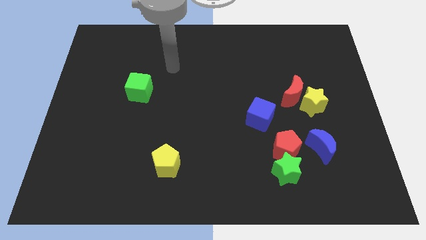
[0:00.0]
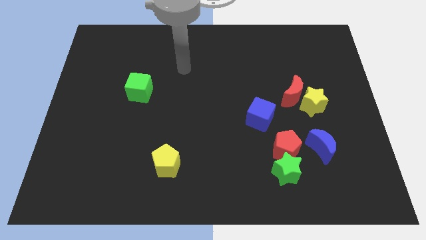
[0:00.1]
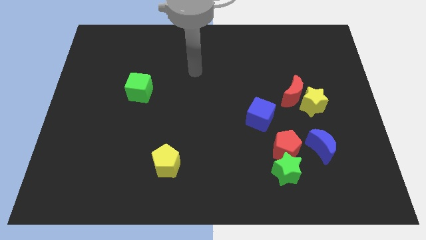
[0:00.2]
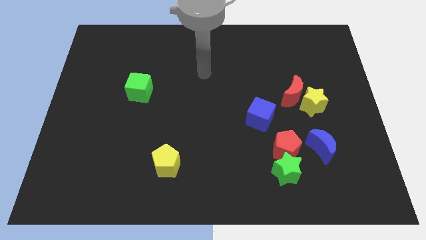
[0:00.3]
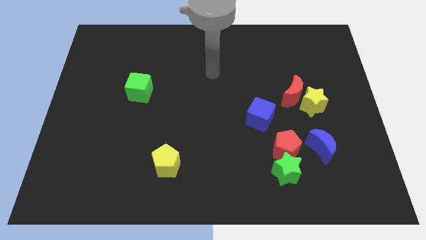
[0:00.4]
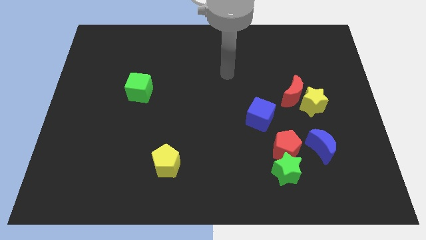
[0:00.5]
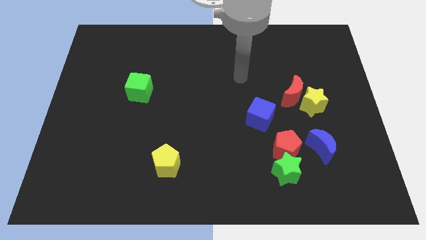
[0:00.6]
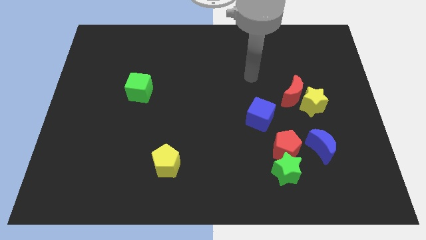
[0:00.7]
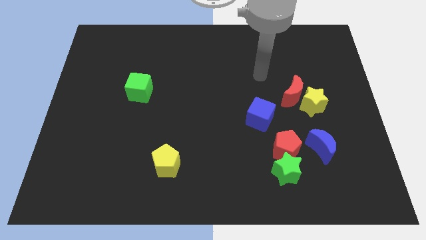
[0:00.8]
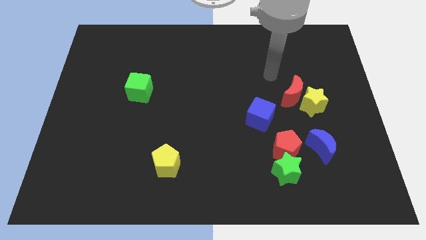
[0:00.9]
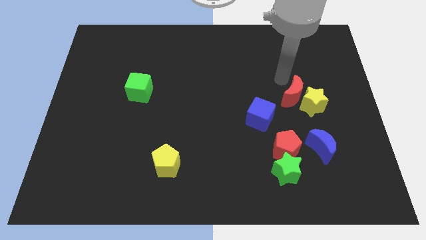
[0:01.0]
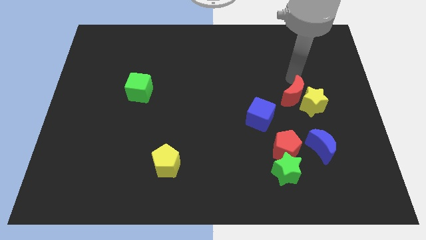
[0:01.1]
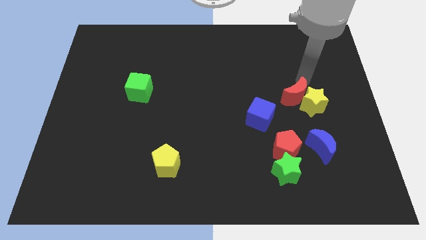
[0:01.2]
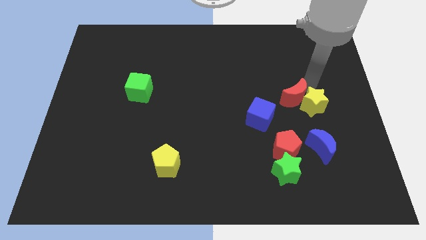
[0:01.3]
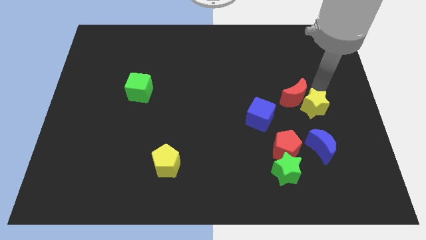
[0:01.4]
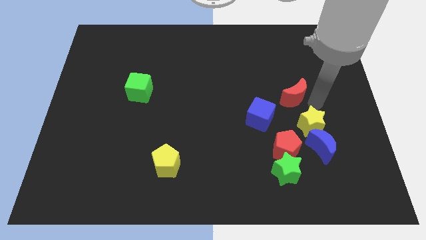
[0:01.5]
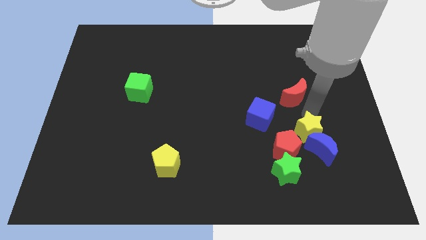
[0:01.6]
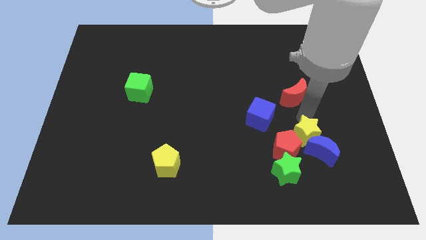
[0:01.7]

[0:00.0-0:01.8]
separate the red moon from the yellow star

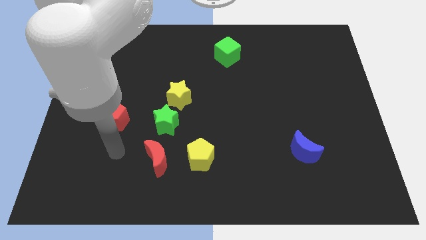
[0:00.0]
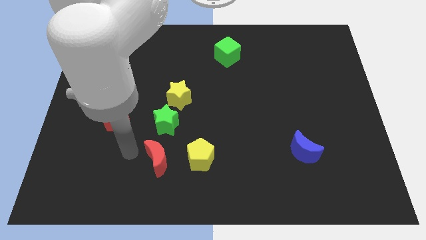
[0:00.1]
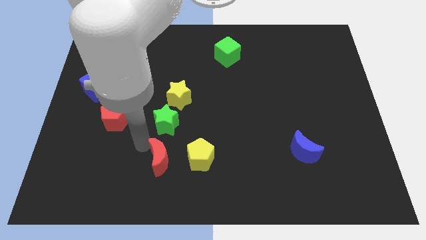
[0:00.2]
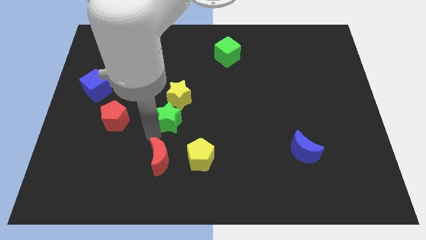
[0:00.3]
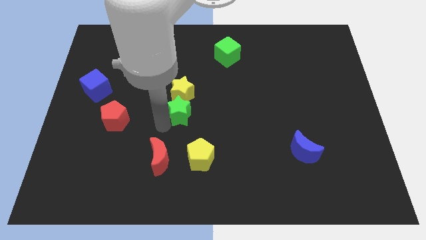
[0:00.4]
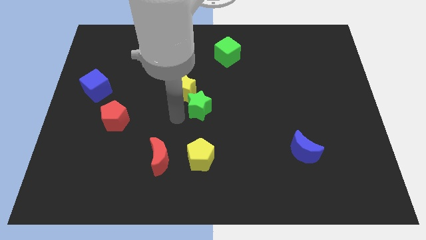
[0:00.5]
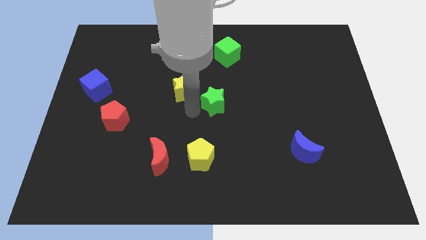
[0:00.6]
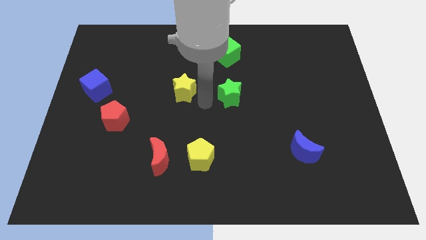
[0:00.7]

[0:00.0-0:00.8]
move the yellow star away from the green star

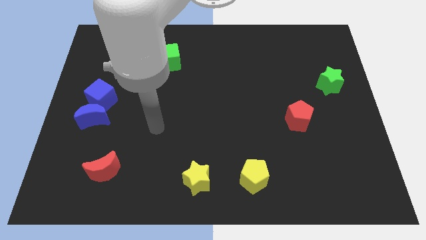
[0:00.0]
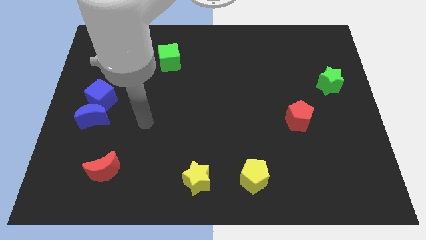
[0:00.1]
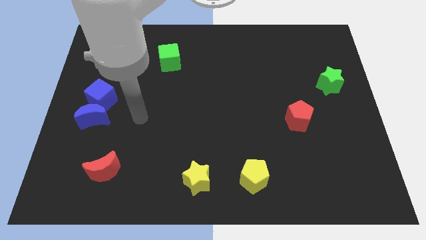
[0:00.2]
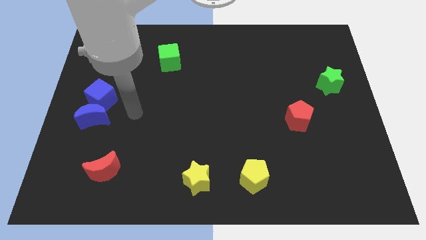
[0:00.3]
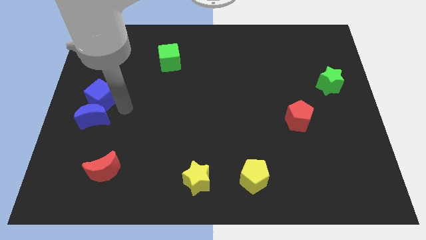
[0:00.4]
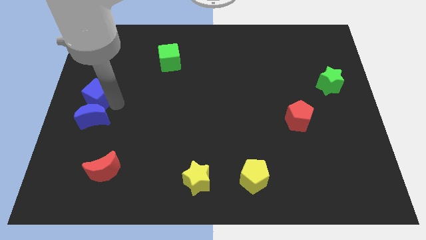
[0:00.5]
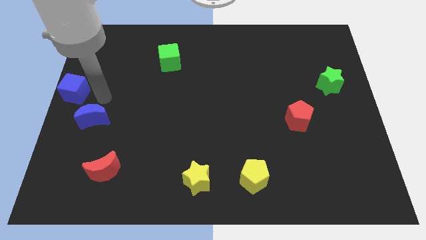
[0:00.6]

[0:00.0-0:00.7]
separate the blue moon from the blue cube

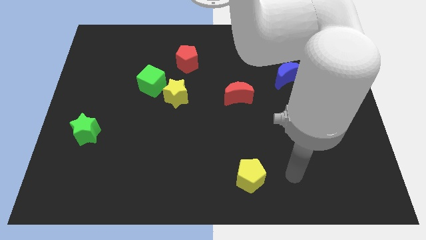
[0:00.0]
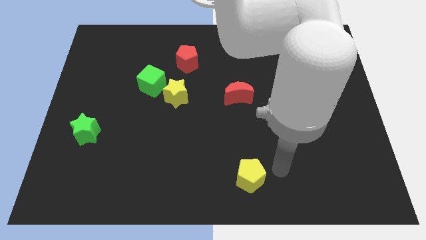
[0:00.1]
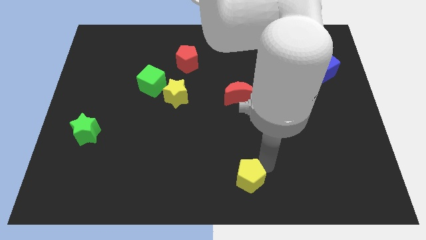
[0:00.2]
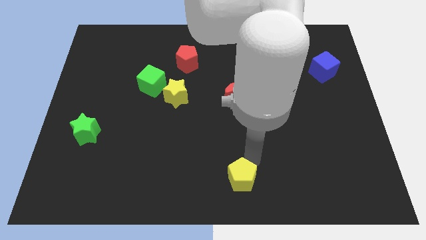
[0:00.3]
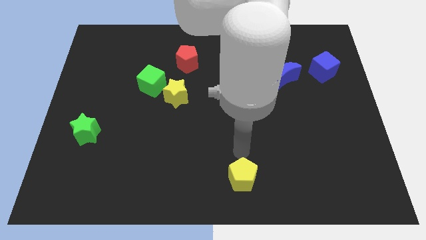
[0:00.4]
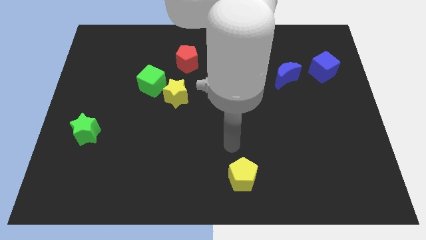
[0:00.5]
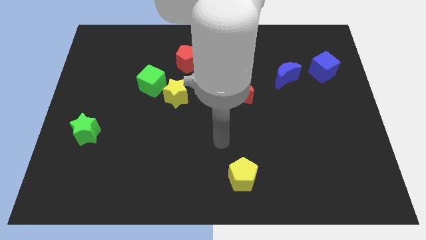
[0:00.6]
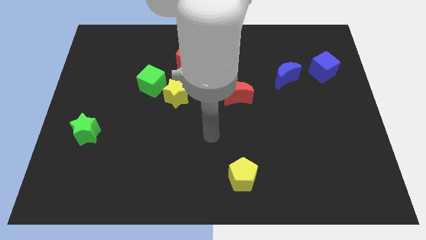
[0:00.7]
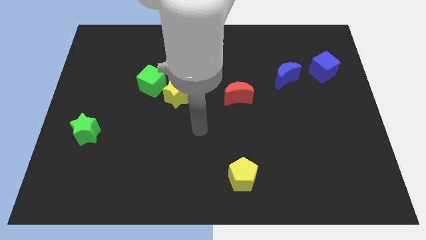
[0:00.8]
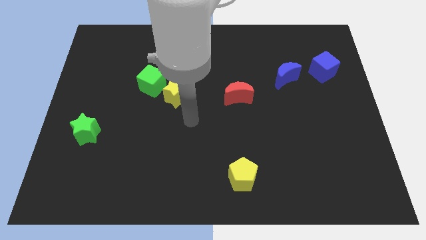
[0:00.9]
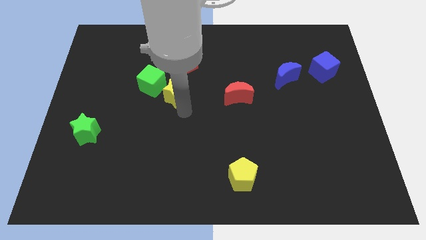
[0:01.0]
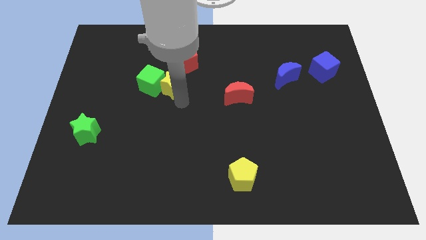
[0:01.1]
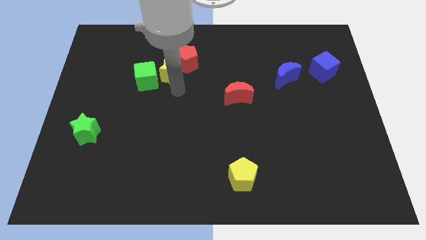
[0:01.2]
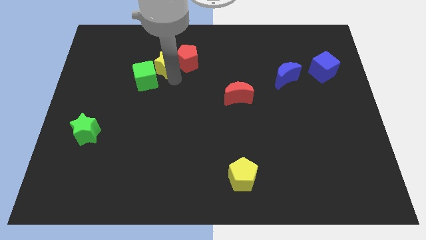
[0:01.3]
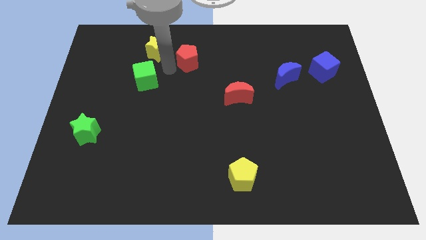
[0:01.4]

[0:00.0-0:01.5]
separate the green cube from the yellow star

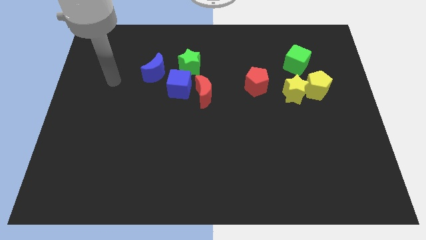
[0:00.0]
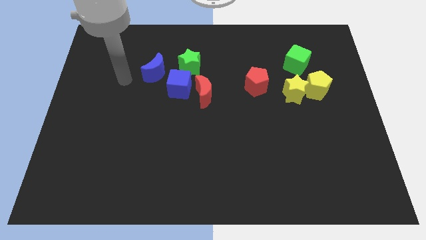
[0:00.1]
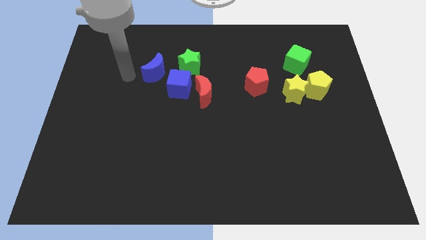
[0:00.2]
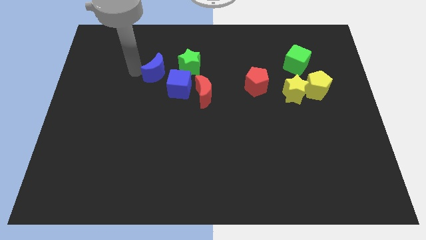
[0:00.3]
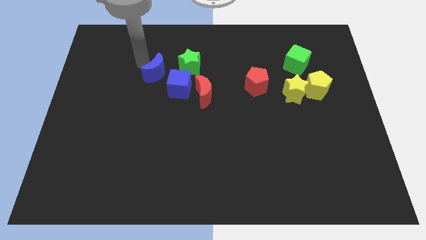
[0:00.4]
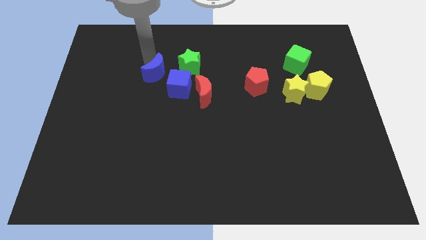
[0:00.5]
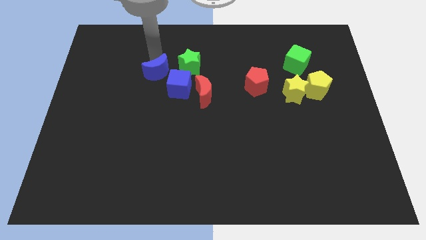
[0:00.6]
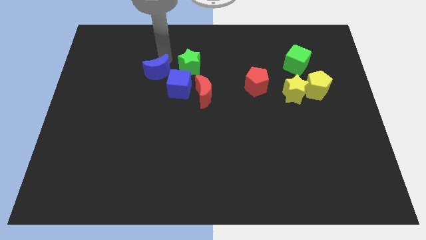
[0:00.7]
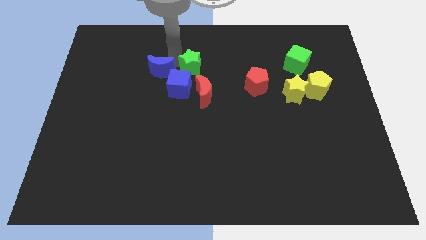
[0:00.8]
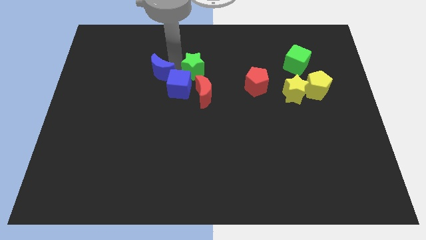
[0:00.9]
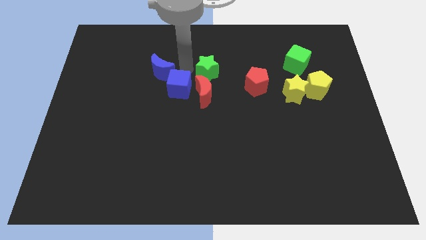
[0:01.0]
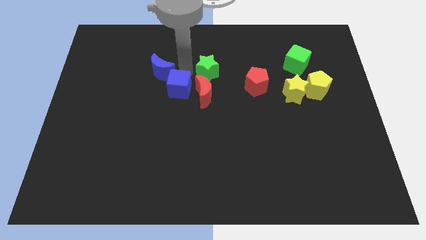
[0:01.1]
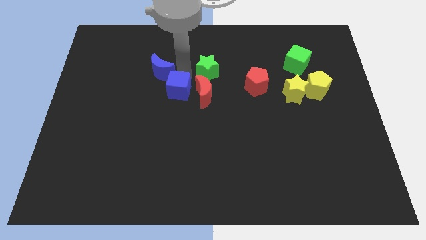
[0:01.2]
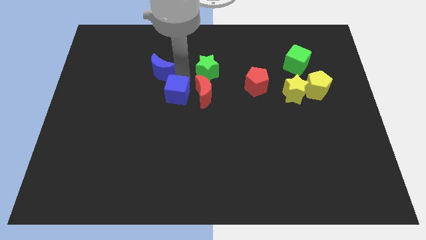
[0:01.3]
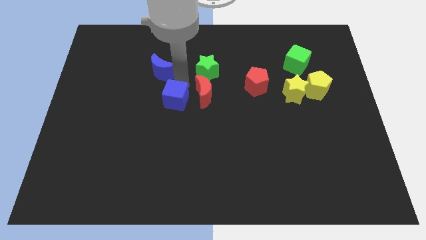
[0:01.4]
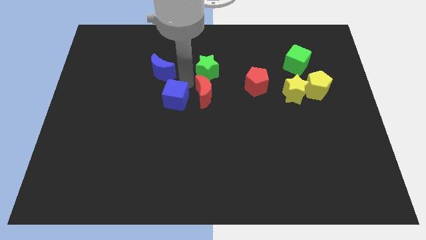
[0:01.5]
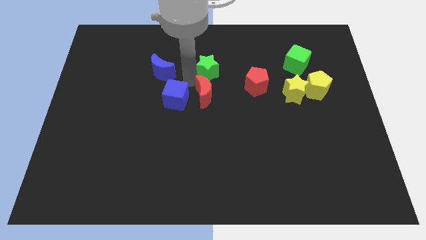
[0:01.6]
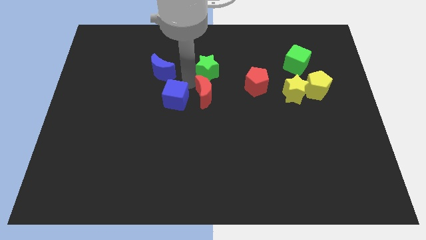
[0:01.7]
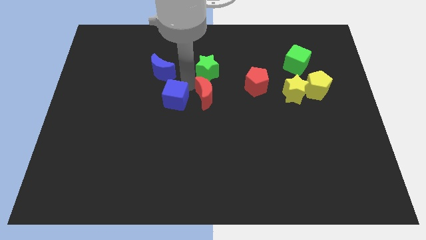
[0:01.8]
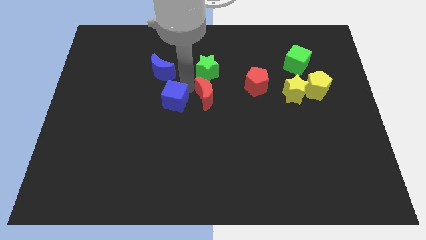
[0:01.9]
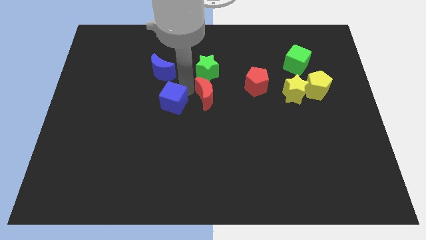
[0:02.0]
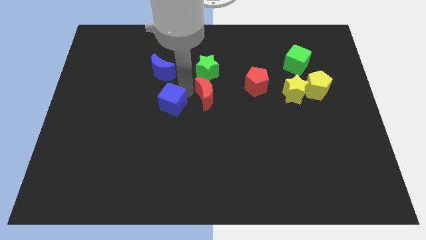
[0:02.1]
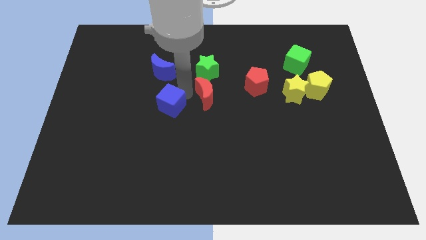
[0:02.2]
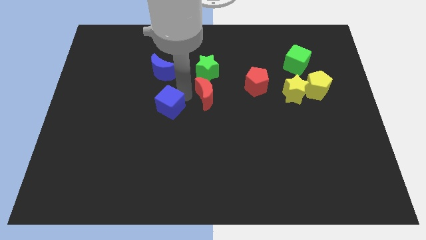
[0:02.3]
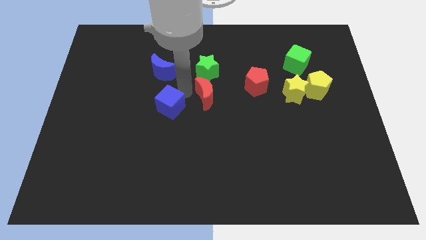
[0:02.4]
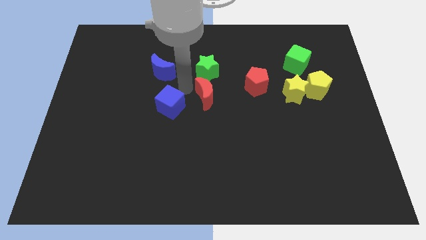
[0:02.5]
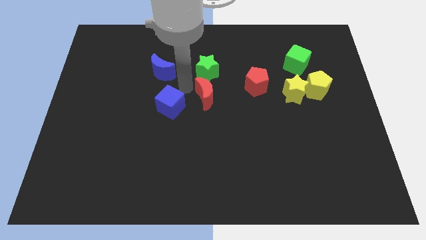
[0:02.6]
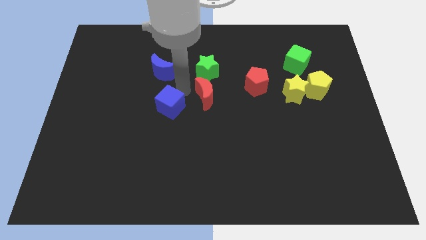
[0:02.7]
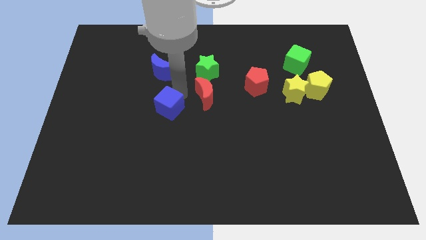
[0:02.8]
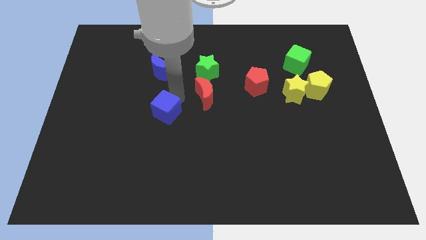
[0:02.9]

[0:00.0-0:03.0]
separate the blue cube from the red moon, green star, and blue moon

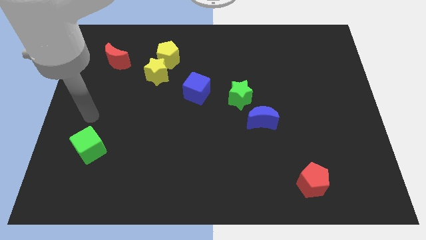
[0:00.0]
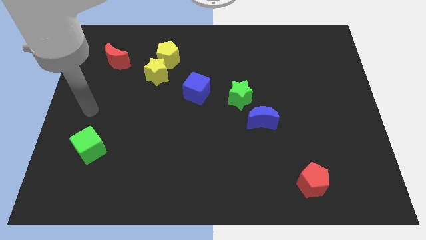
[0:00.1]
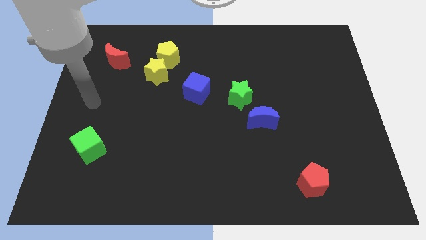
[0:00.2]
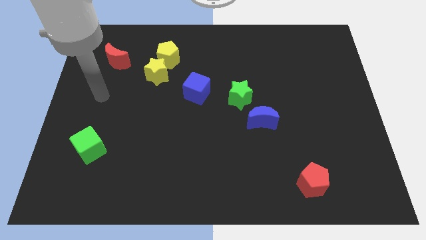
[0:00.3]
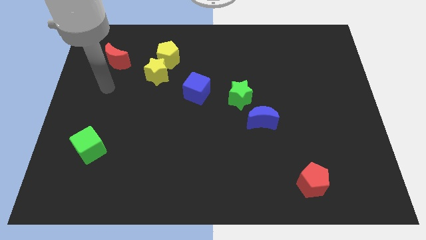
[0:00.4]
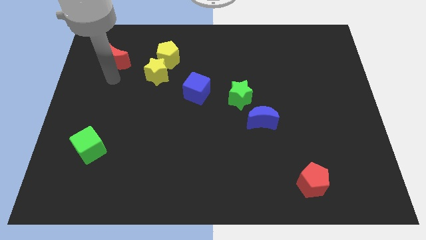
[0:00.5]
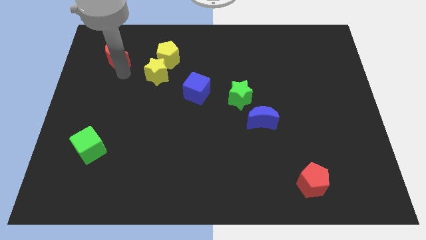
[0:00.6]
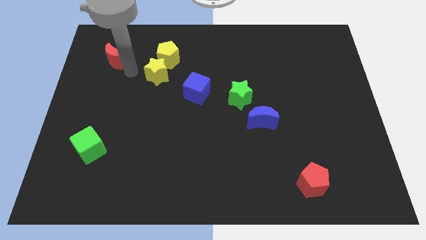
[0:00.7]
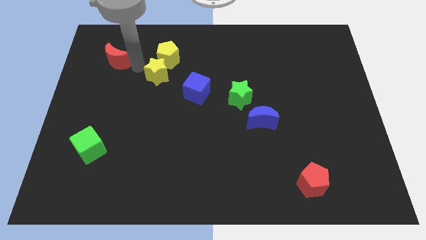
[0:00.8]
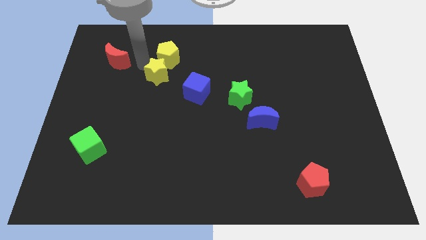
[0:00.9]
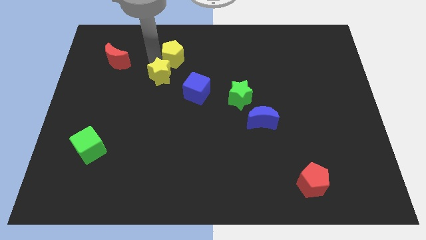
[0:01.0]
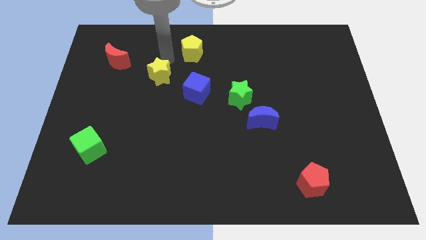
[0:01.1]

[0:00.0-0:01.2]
separate the yellow star from the yellow pentagon

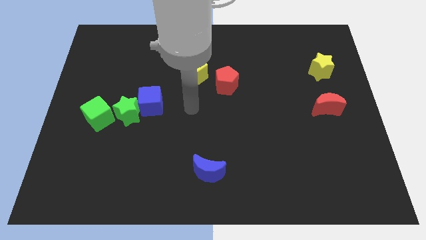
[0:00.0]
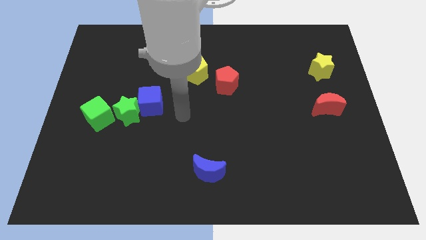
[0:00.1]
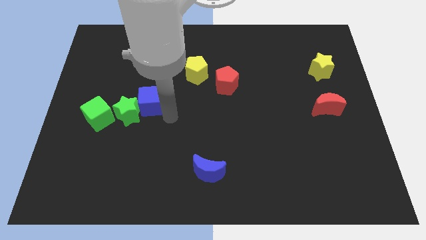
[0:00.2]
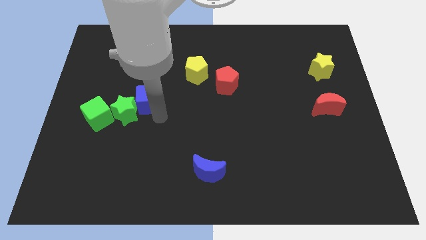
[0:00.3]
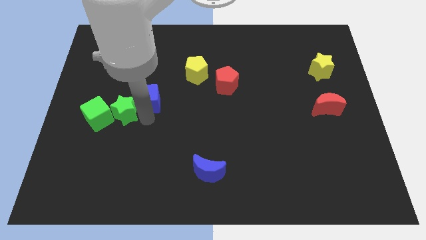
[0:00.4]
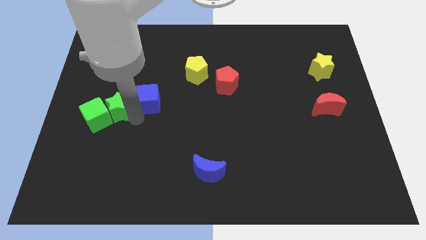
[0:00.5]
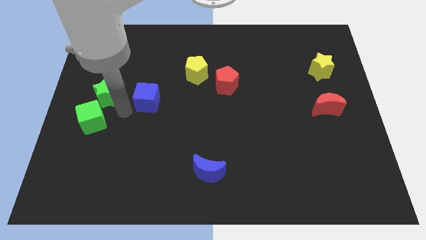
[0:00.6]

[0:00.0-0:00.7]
move the blue cube away from the green star
